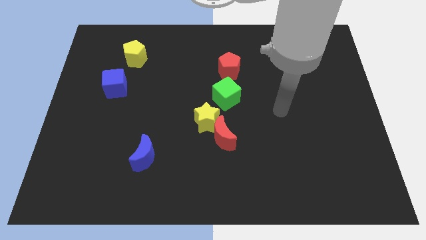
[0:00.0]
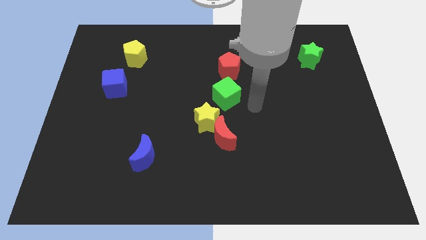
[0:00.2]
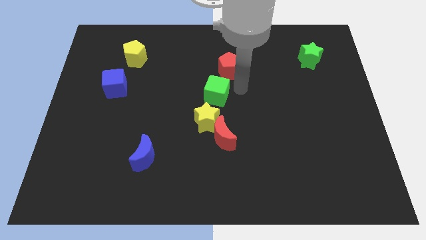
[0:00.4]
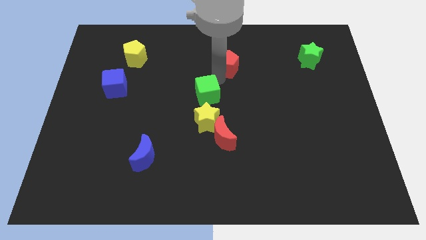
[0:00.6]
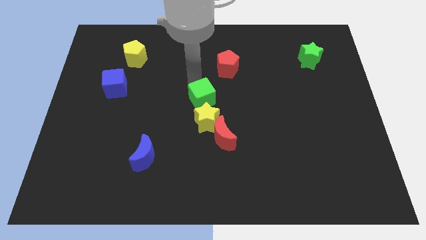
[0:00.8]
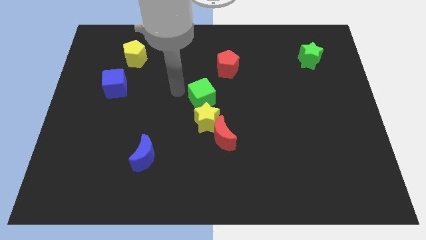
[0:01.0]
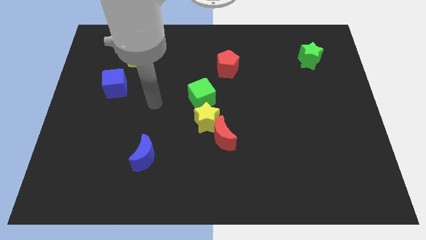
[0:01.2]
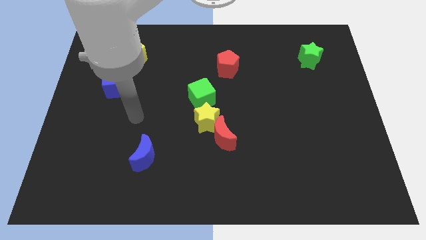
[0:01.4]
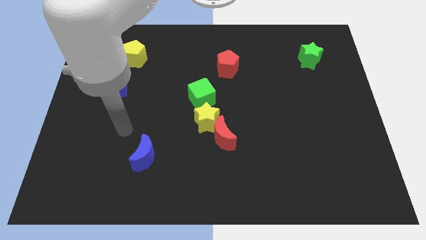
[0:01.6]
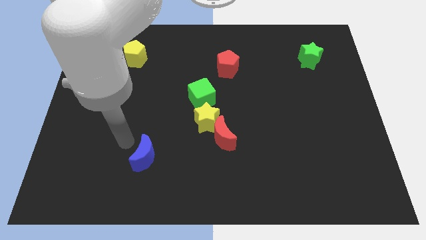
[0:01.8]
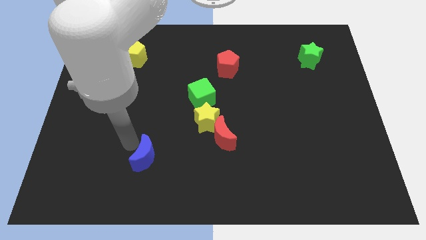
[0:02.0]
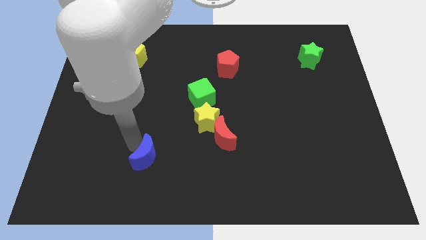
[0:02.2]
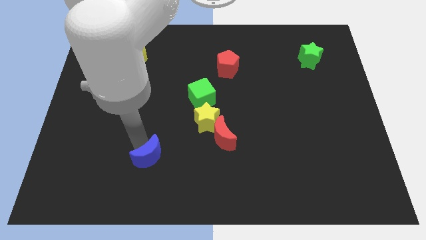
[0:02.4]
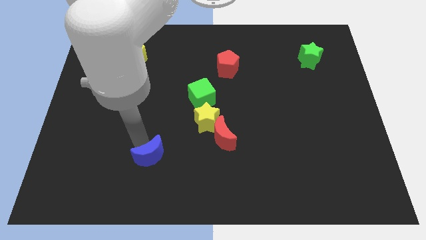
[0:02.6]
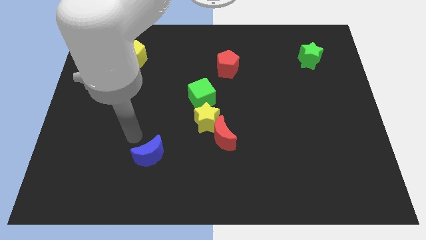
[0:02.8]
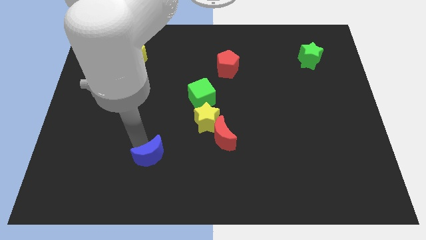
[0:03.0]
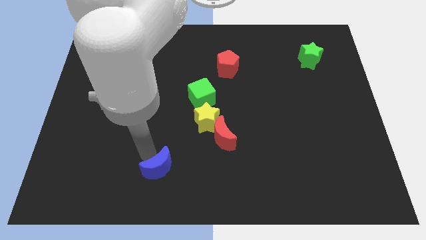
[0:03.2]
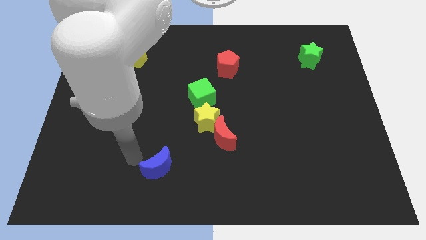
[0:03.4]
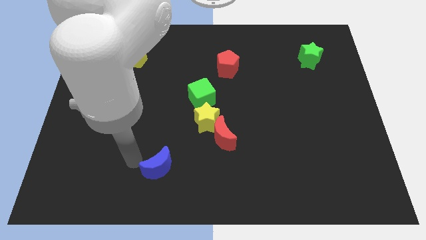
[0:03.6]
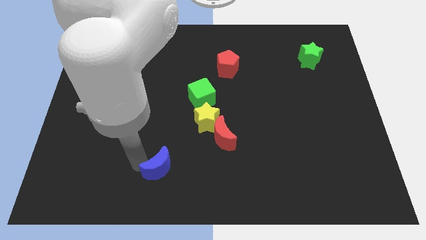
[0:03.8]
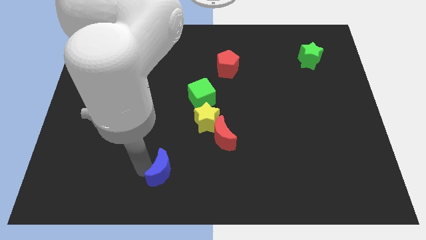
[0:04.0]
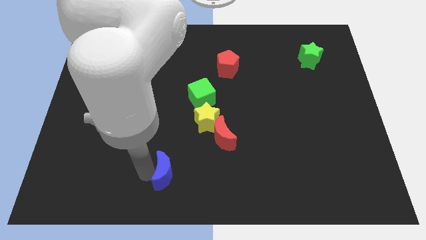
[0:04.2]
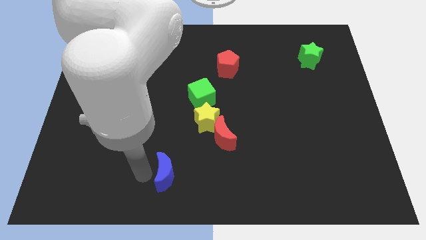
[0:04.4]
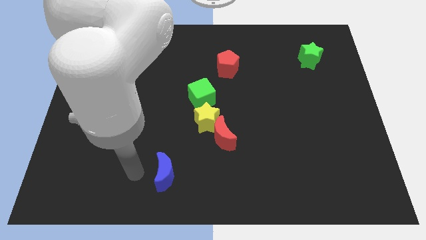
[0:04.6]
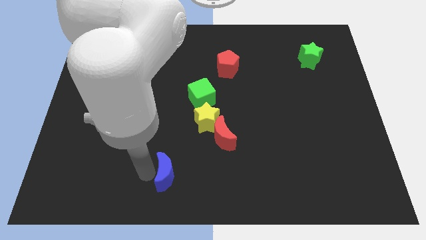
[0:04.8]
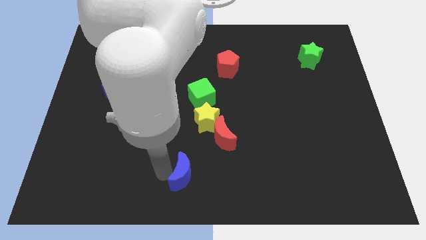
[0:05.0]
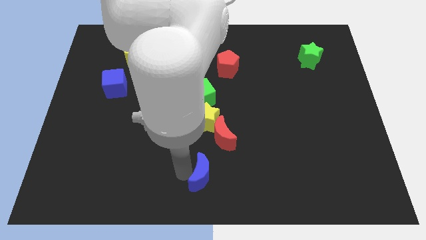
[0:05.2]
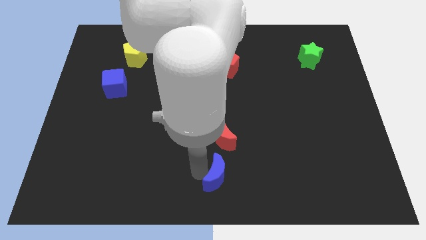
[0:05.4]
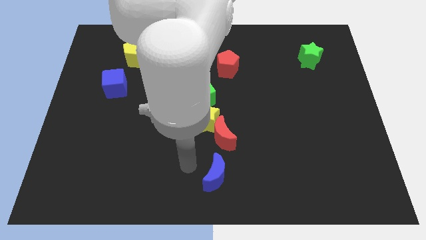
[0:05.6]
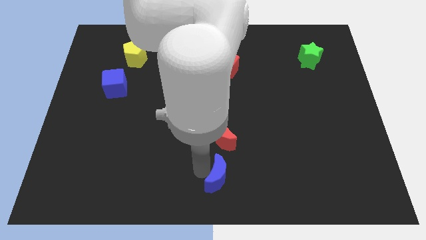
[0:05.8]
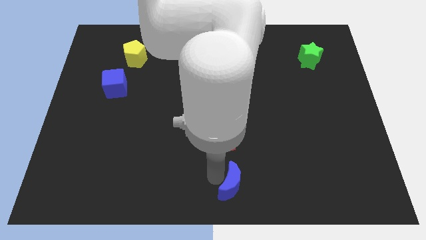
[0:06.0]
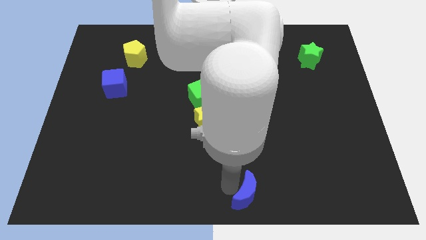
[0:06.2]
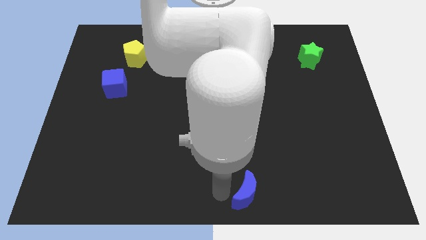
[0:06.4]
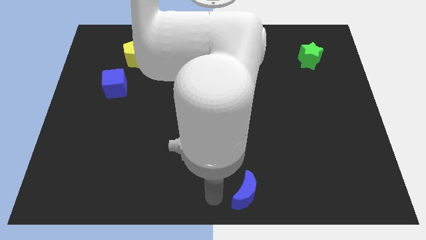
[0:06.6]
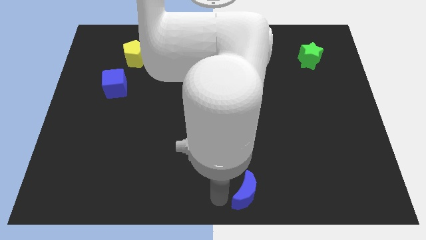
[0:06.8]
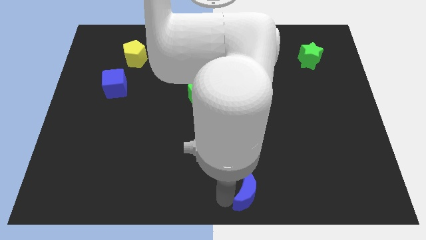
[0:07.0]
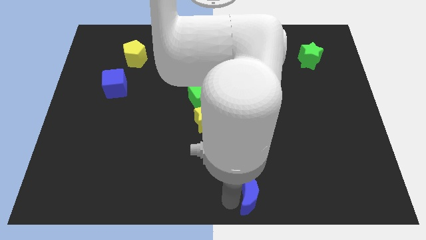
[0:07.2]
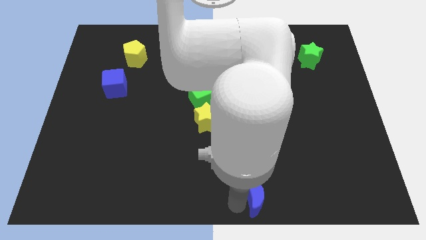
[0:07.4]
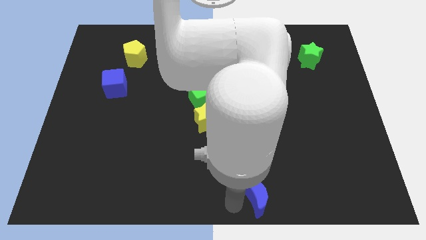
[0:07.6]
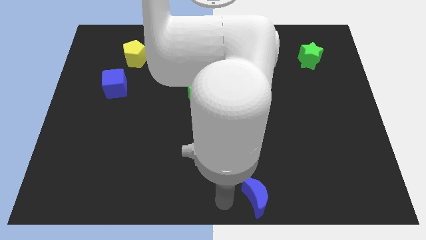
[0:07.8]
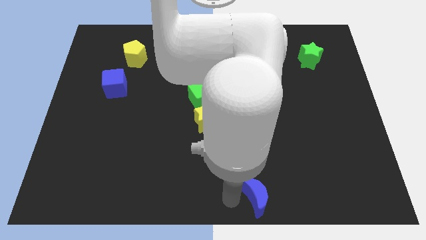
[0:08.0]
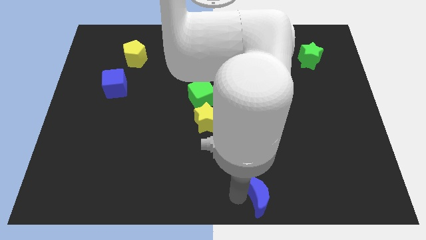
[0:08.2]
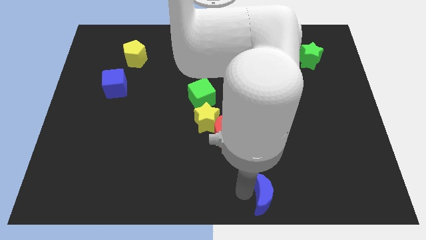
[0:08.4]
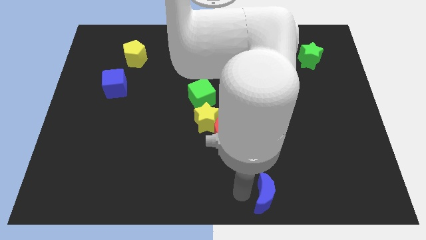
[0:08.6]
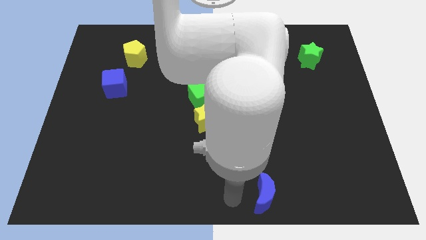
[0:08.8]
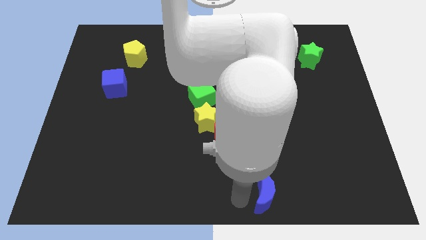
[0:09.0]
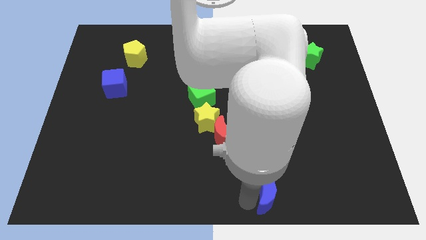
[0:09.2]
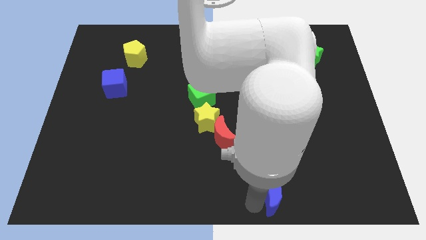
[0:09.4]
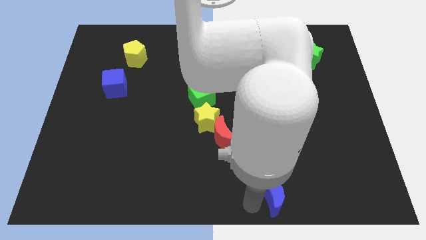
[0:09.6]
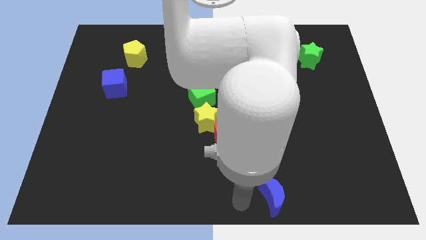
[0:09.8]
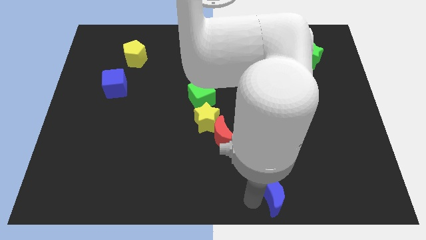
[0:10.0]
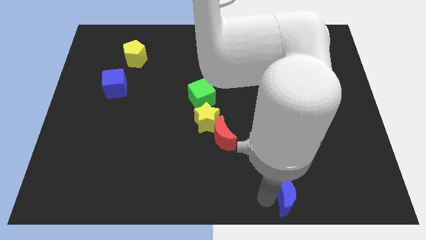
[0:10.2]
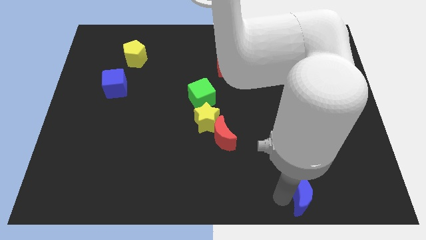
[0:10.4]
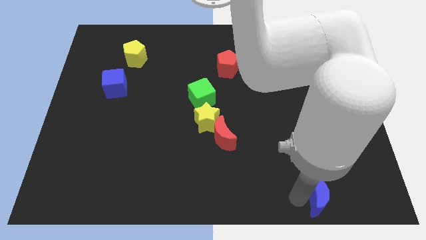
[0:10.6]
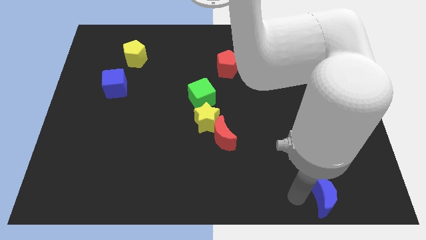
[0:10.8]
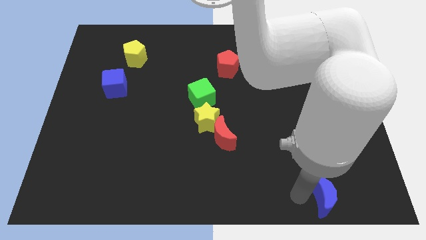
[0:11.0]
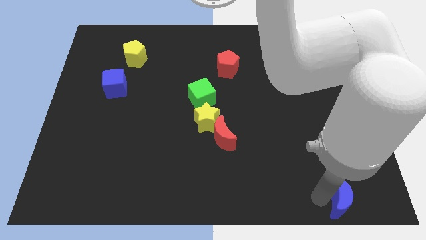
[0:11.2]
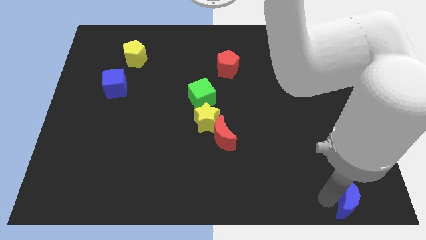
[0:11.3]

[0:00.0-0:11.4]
slide the blue moon to the bottom right
